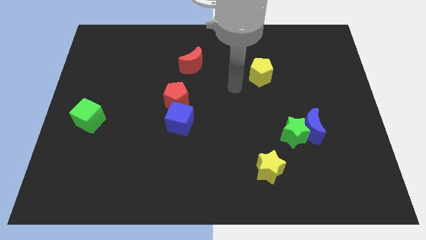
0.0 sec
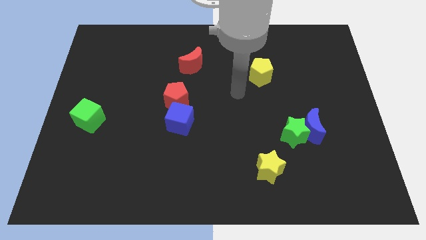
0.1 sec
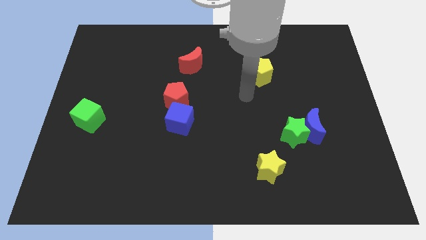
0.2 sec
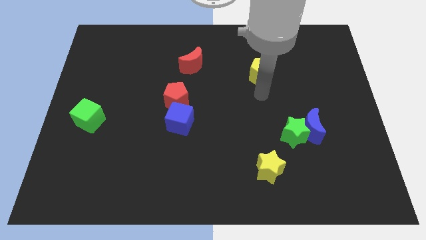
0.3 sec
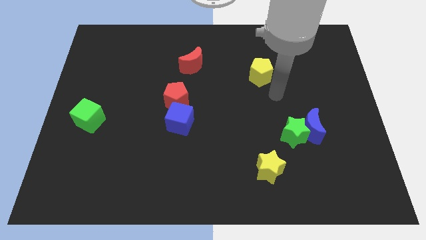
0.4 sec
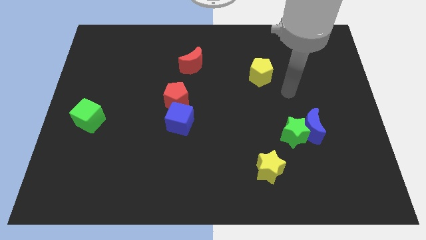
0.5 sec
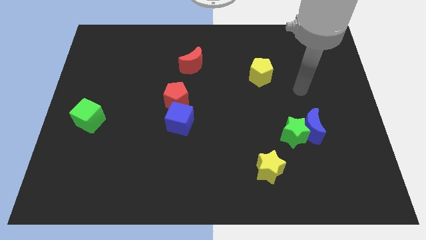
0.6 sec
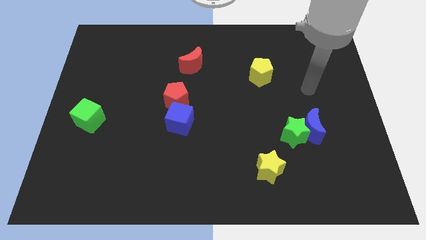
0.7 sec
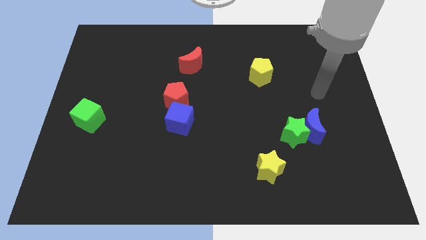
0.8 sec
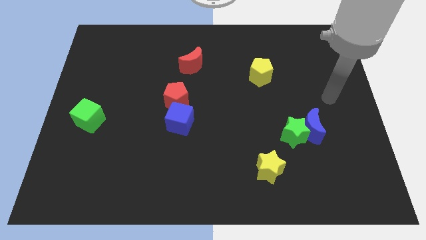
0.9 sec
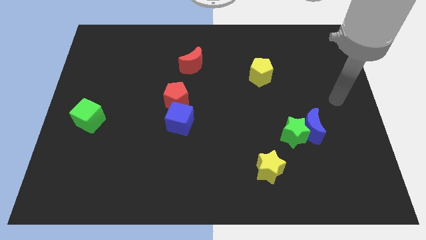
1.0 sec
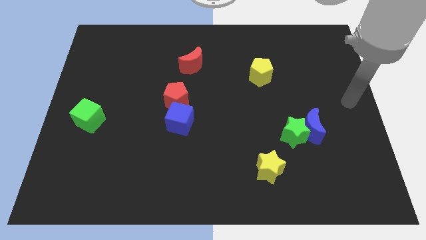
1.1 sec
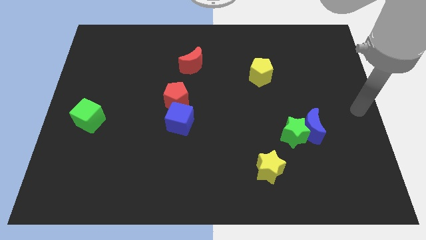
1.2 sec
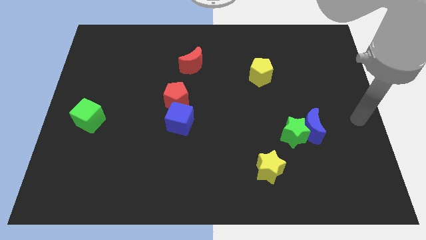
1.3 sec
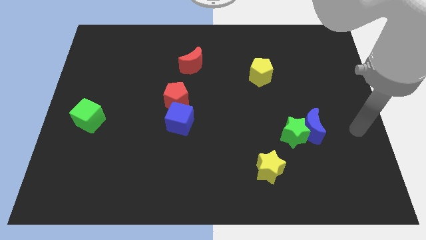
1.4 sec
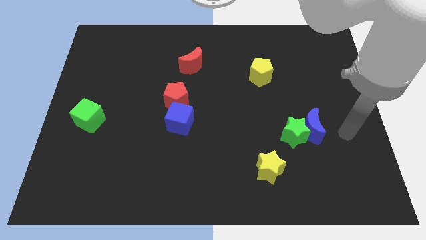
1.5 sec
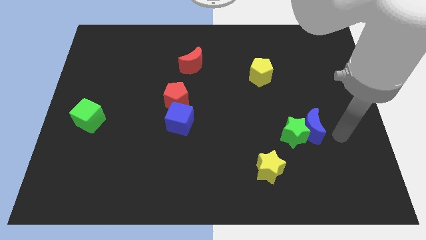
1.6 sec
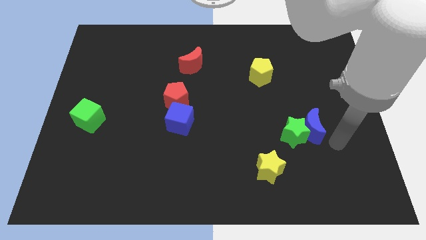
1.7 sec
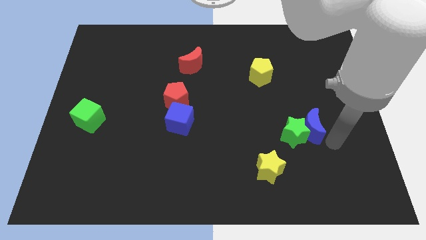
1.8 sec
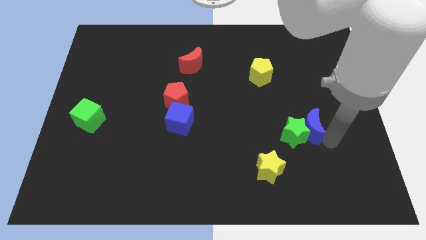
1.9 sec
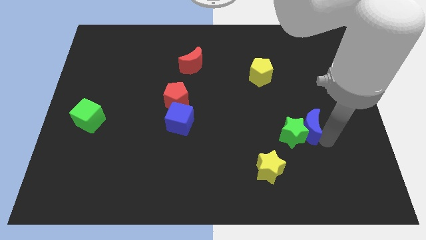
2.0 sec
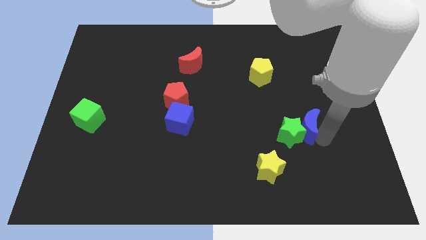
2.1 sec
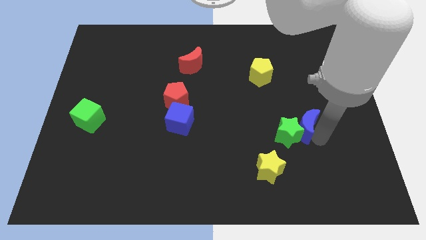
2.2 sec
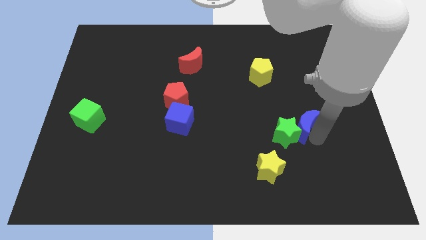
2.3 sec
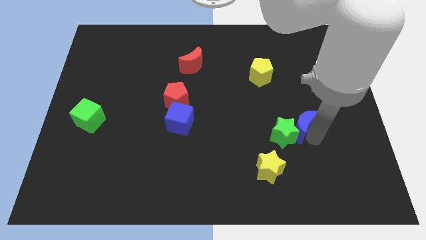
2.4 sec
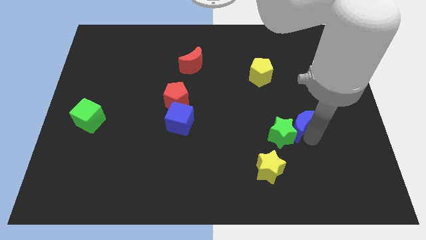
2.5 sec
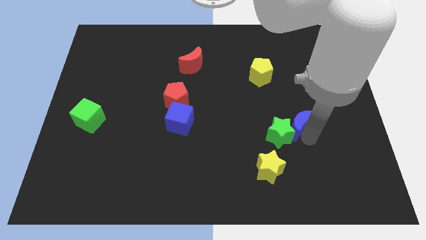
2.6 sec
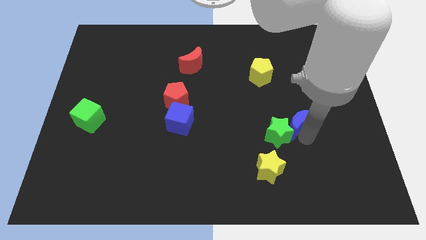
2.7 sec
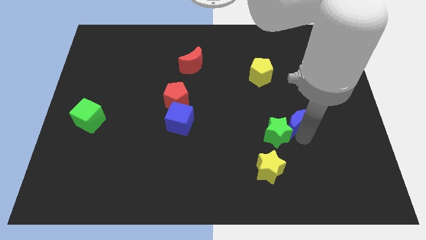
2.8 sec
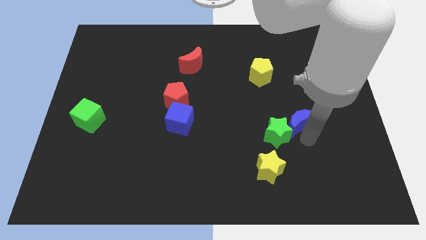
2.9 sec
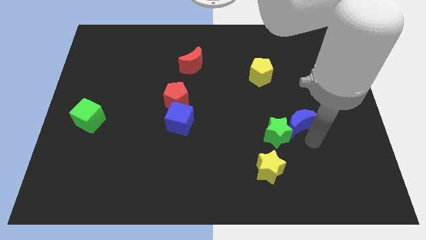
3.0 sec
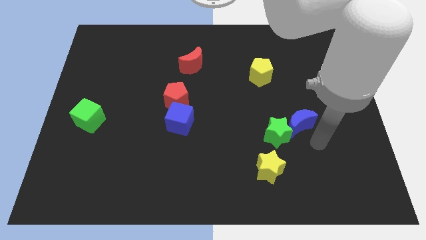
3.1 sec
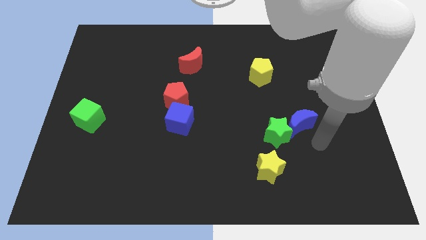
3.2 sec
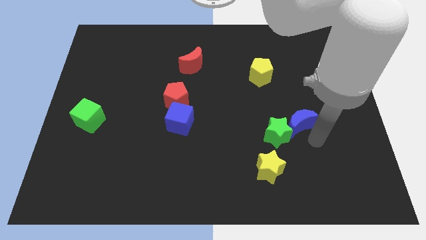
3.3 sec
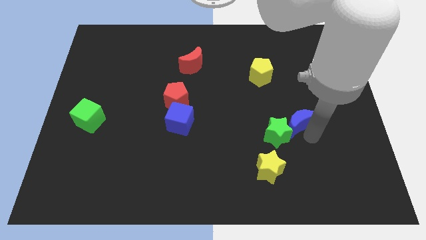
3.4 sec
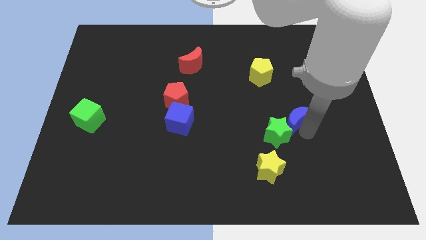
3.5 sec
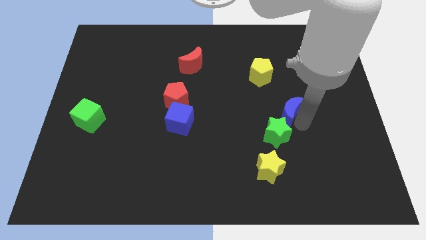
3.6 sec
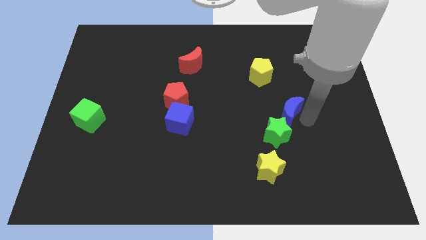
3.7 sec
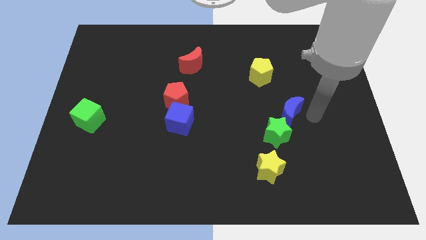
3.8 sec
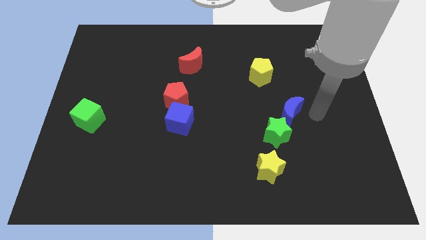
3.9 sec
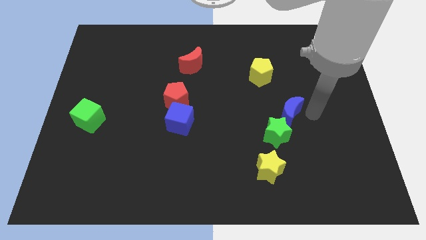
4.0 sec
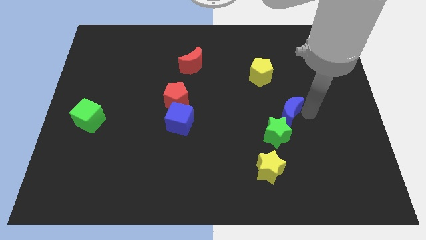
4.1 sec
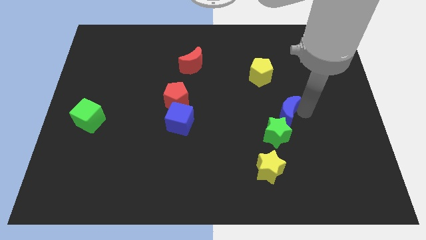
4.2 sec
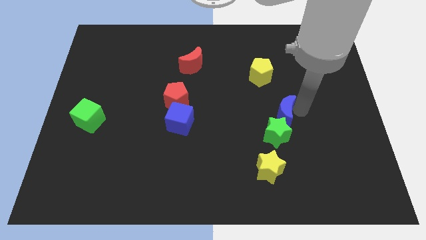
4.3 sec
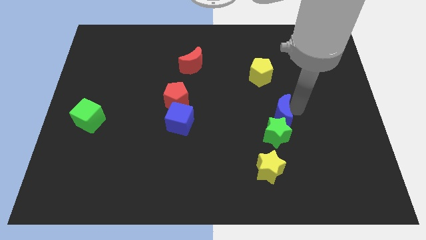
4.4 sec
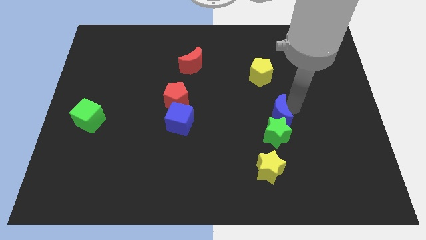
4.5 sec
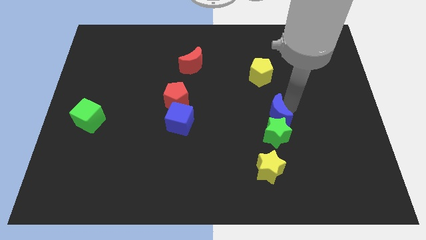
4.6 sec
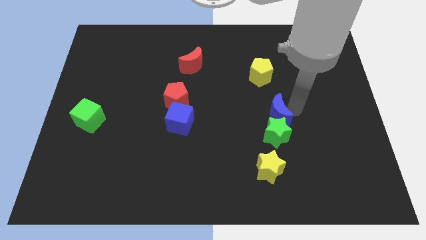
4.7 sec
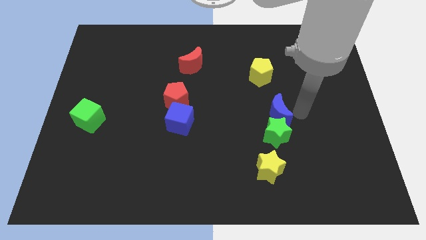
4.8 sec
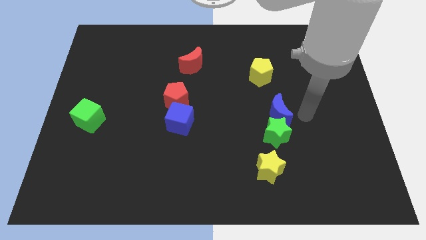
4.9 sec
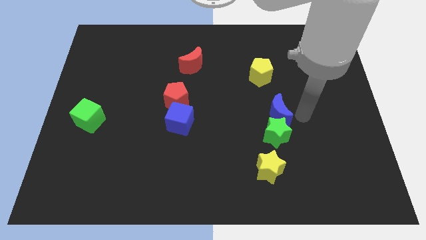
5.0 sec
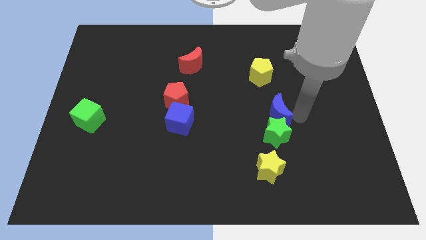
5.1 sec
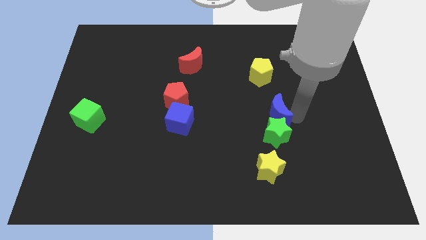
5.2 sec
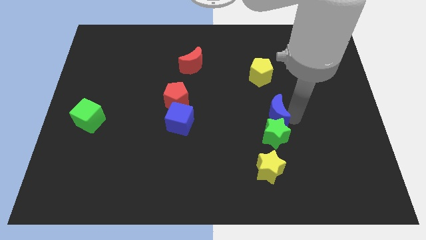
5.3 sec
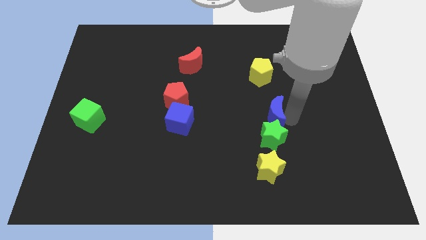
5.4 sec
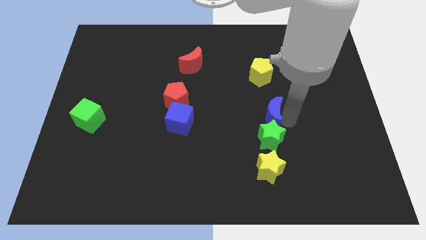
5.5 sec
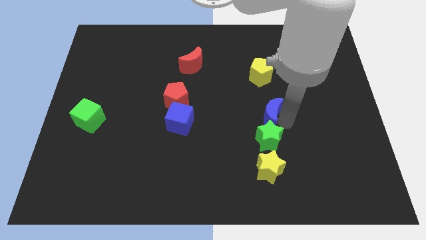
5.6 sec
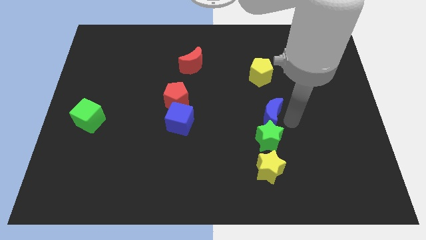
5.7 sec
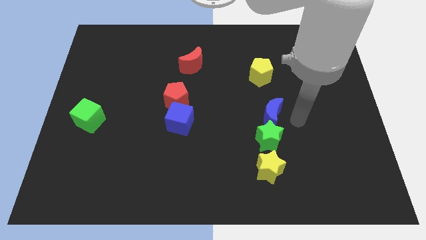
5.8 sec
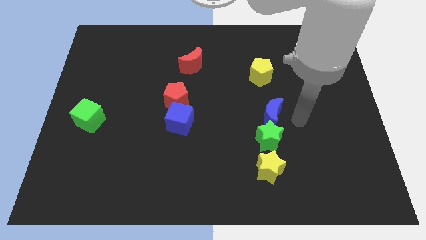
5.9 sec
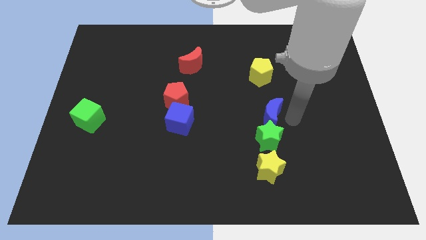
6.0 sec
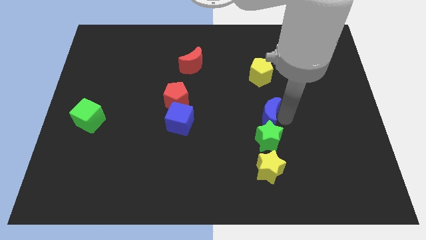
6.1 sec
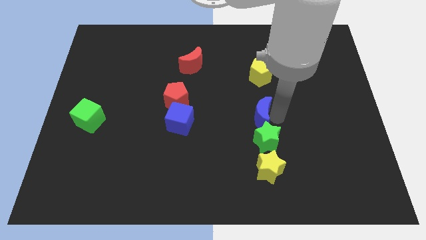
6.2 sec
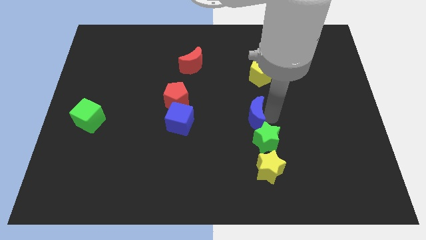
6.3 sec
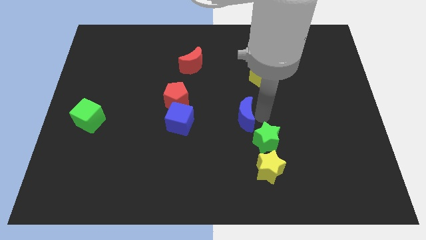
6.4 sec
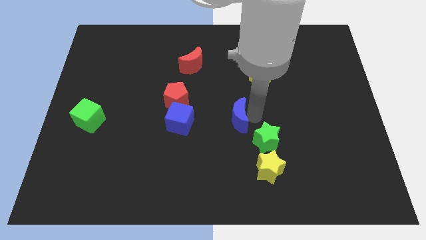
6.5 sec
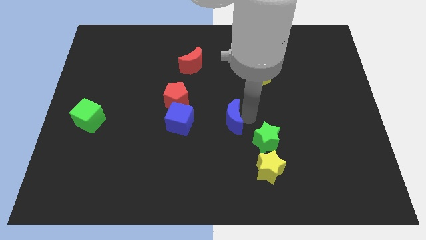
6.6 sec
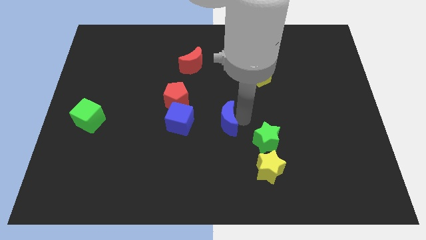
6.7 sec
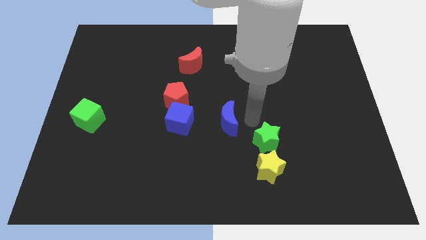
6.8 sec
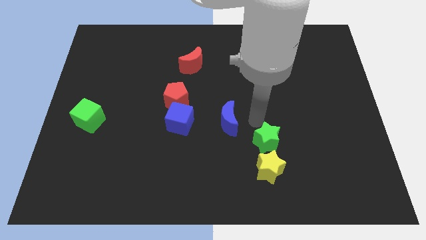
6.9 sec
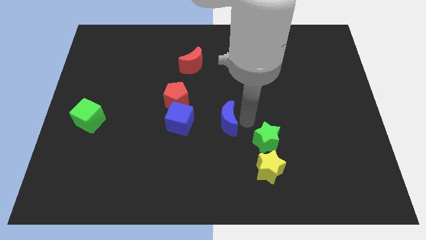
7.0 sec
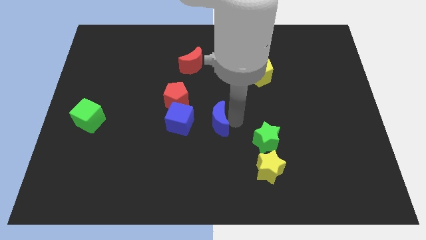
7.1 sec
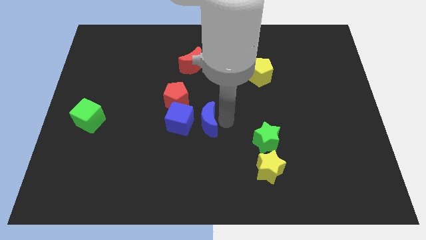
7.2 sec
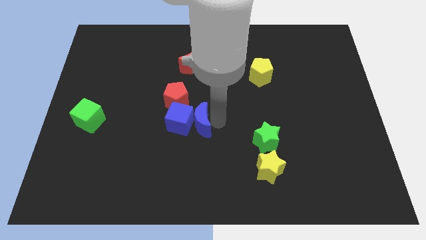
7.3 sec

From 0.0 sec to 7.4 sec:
move the blue moon next to the blue cube

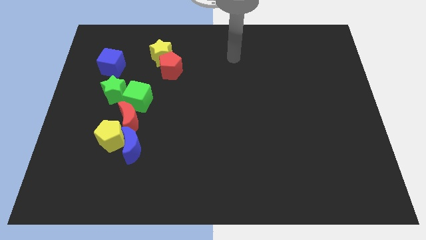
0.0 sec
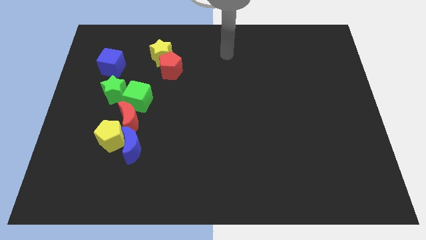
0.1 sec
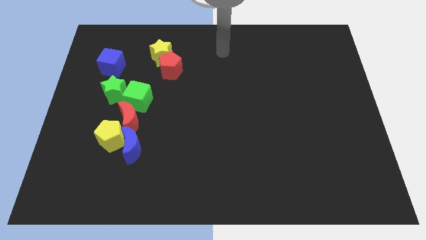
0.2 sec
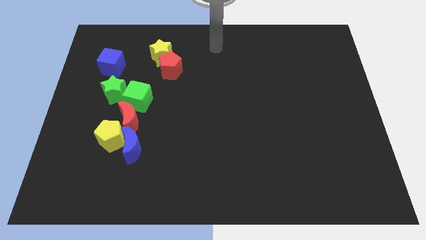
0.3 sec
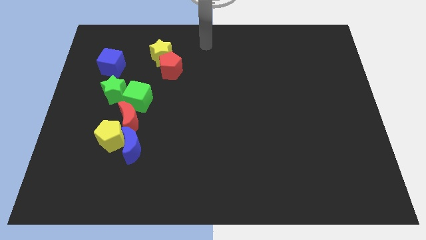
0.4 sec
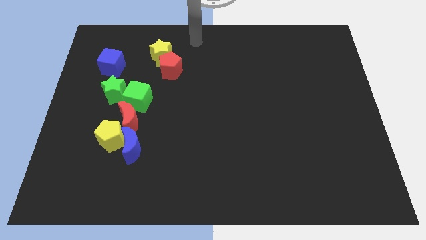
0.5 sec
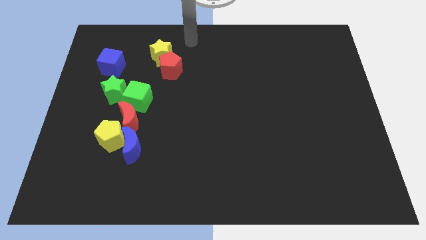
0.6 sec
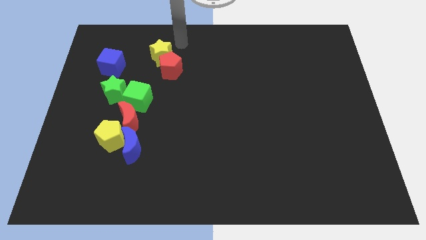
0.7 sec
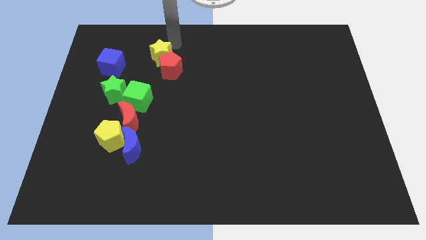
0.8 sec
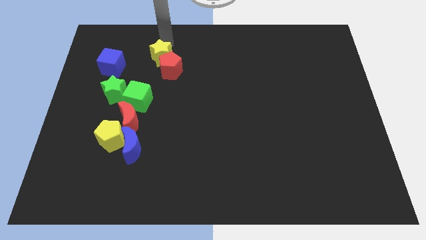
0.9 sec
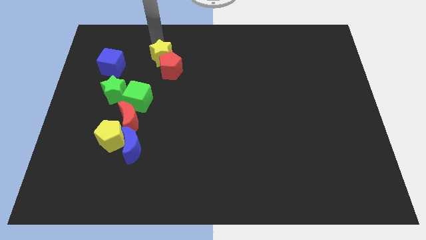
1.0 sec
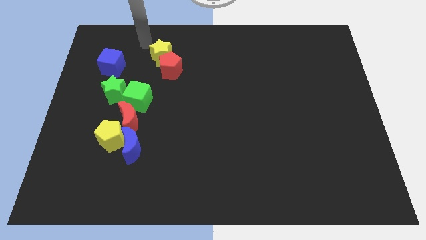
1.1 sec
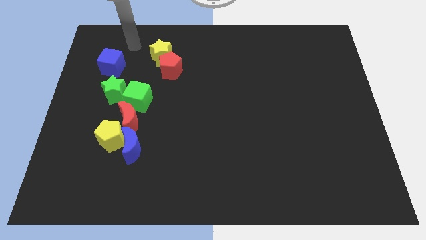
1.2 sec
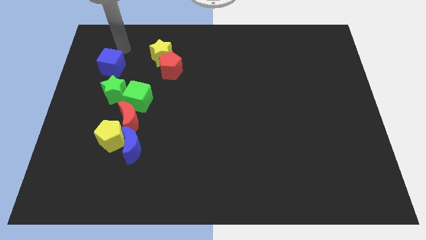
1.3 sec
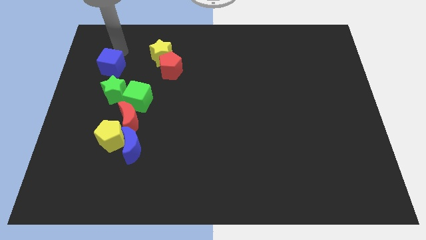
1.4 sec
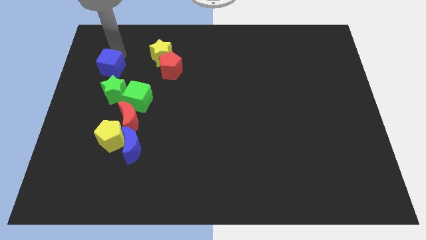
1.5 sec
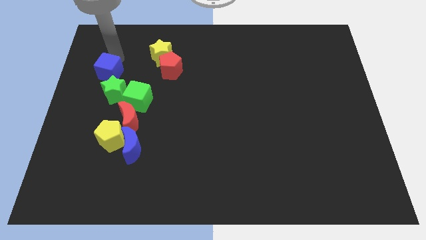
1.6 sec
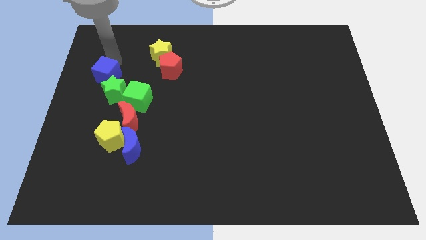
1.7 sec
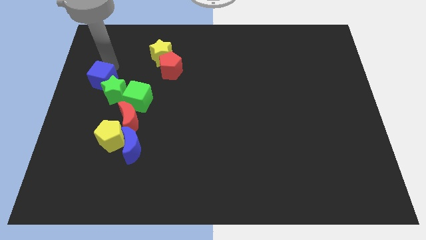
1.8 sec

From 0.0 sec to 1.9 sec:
slide the blue cube towards the green star
